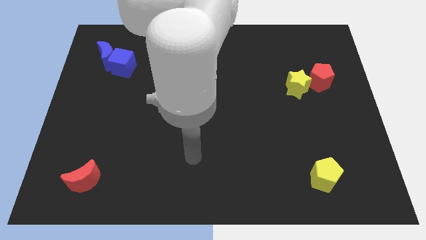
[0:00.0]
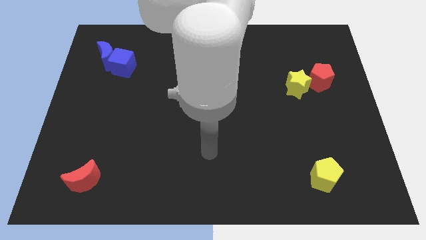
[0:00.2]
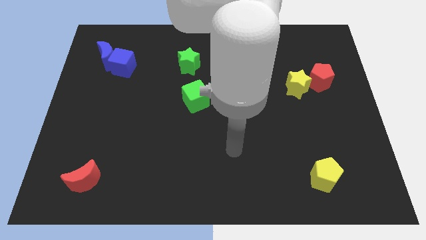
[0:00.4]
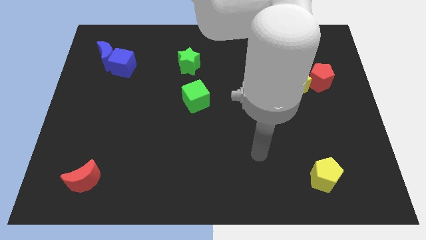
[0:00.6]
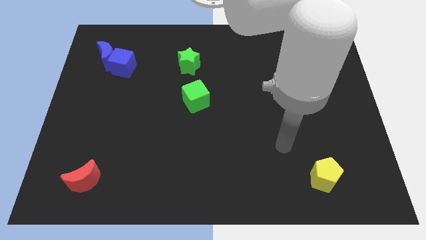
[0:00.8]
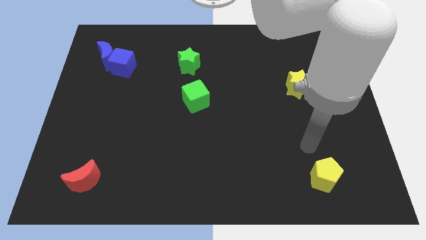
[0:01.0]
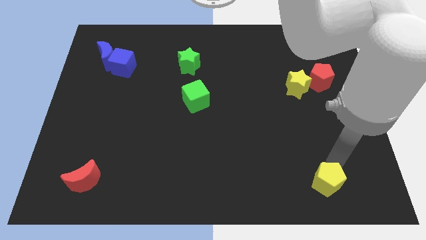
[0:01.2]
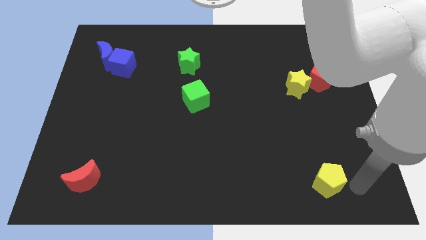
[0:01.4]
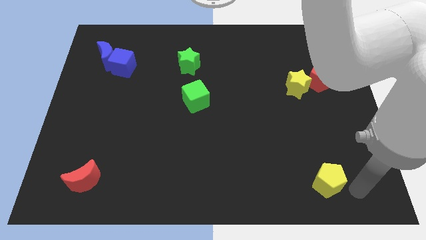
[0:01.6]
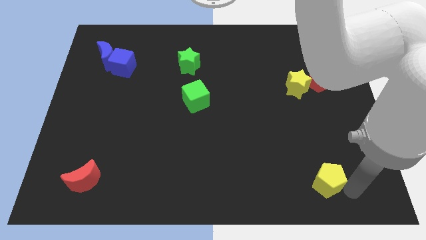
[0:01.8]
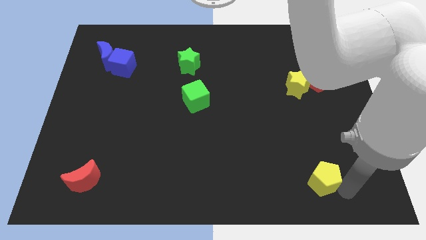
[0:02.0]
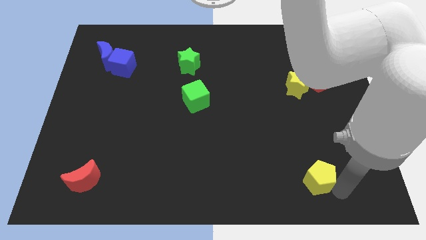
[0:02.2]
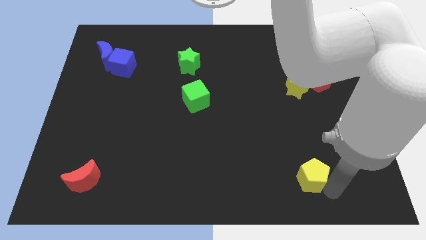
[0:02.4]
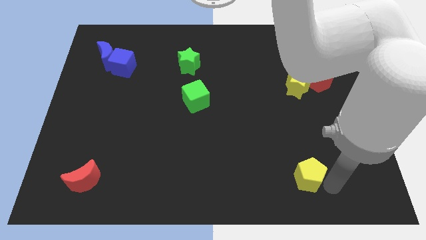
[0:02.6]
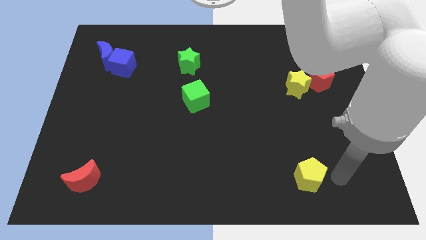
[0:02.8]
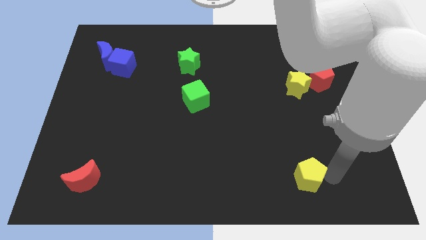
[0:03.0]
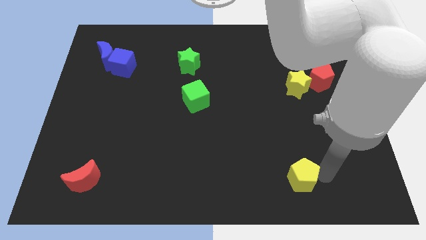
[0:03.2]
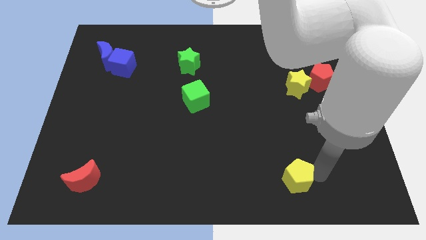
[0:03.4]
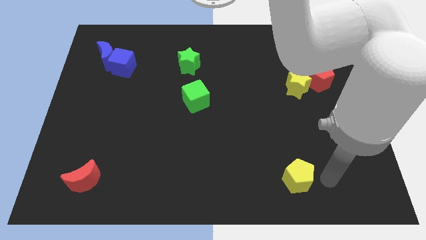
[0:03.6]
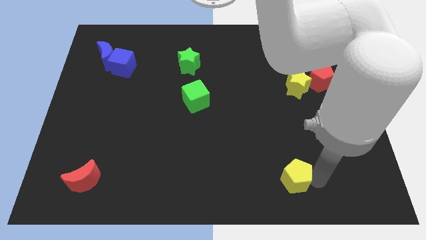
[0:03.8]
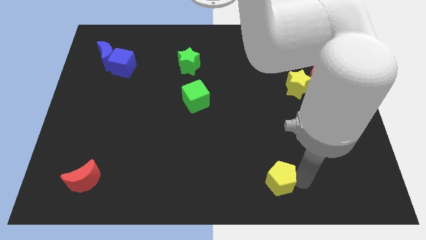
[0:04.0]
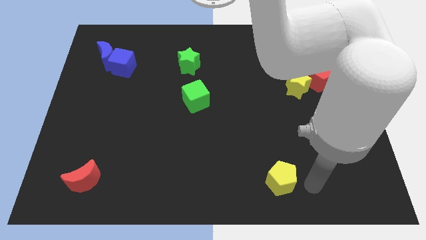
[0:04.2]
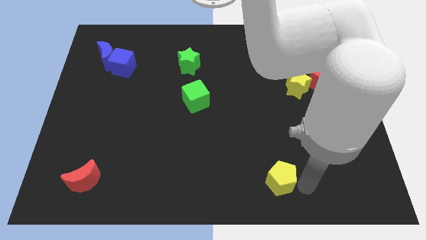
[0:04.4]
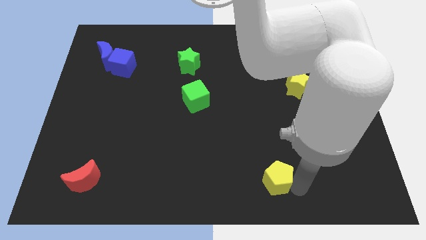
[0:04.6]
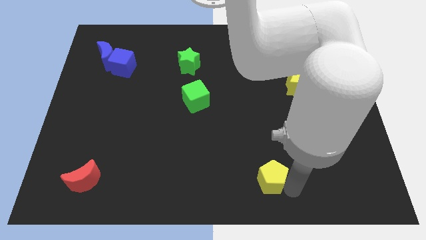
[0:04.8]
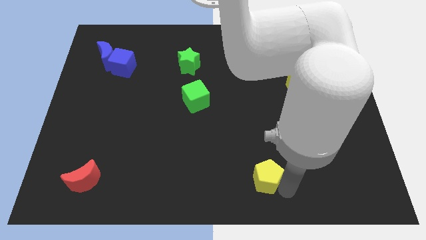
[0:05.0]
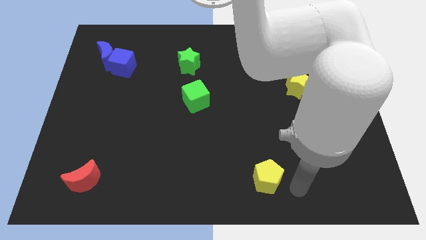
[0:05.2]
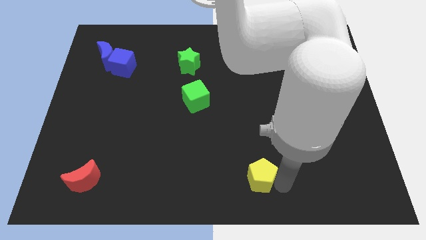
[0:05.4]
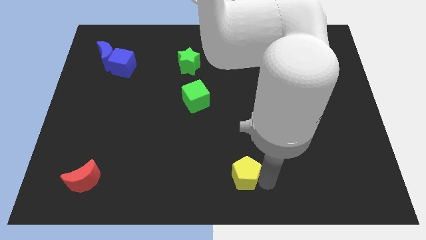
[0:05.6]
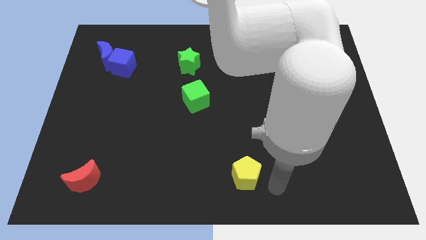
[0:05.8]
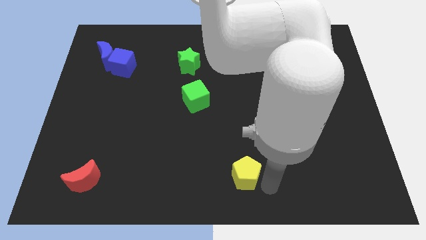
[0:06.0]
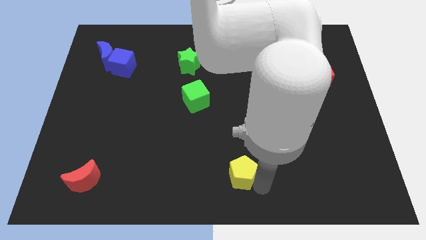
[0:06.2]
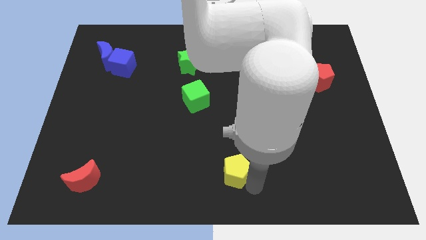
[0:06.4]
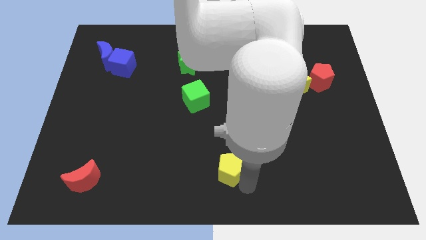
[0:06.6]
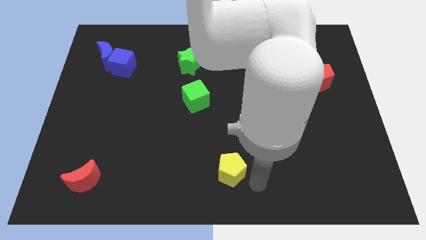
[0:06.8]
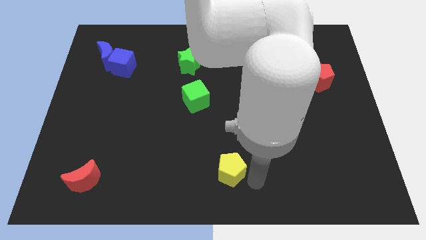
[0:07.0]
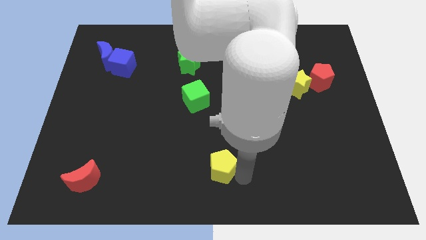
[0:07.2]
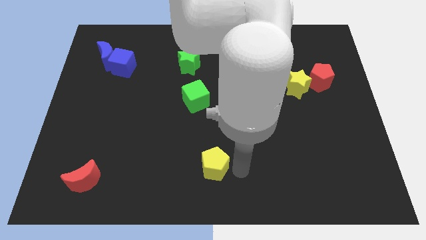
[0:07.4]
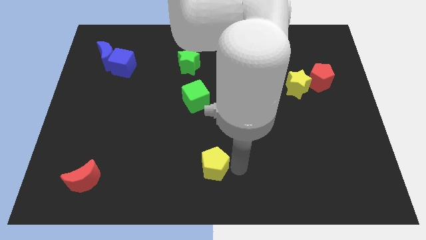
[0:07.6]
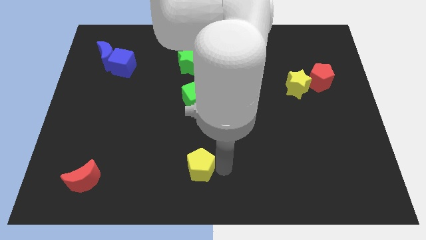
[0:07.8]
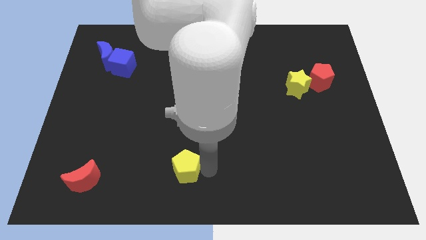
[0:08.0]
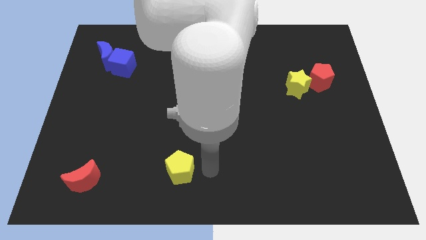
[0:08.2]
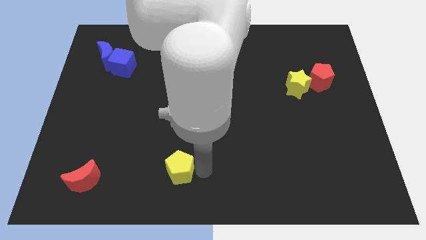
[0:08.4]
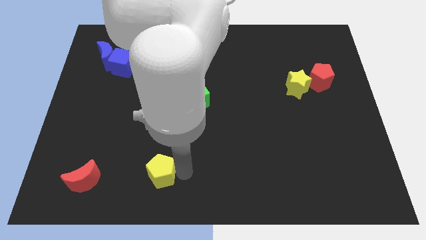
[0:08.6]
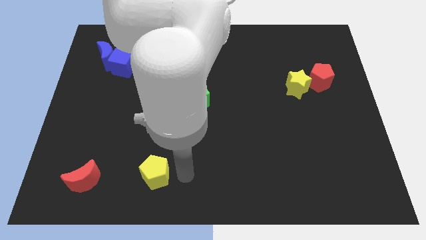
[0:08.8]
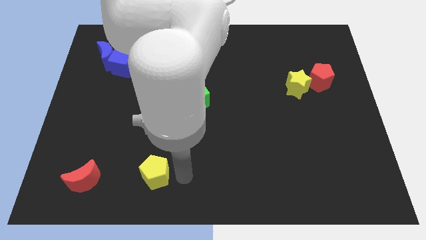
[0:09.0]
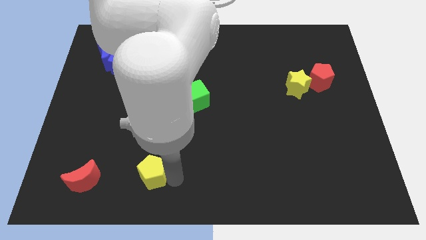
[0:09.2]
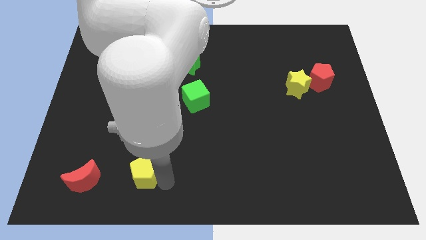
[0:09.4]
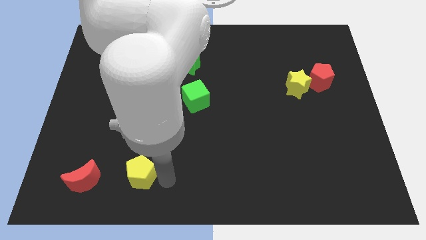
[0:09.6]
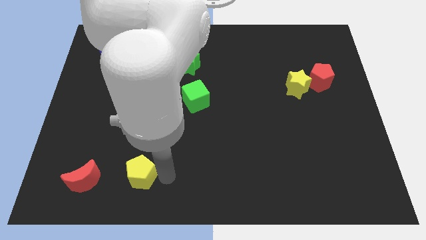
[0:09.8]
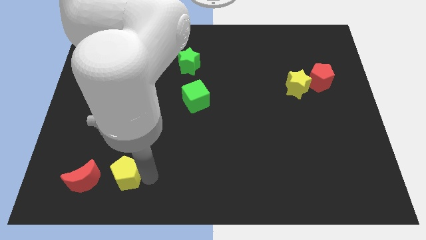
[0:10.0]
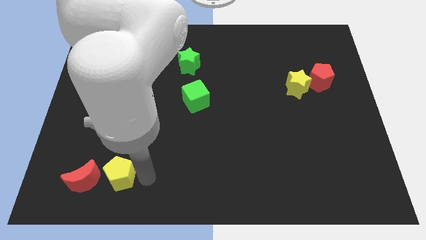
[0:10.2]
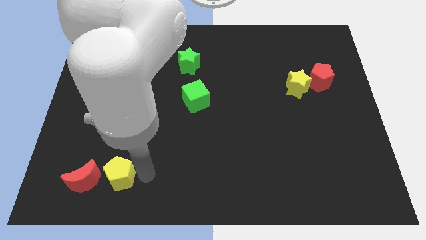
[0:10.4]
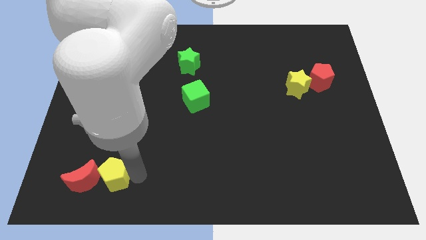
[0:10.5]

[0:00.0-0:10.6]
move the yellow pentagon towards the red moon

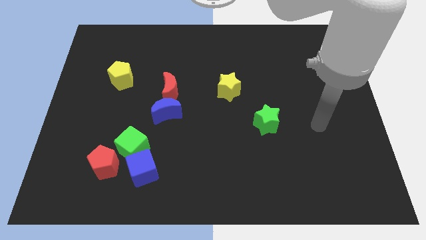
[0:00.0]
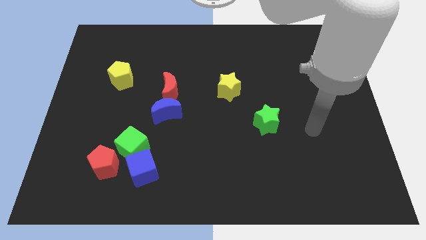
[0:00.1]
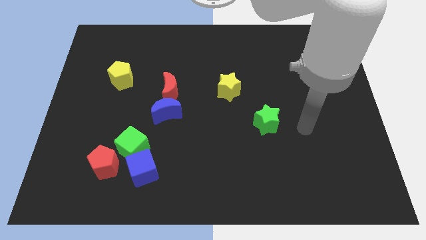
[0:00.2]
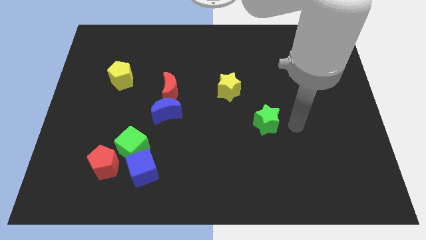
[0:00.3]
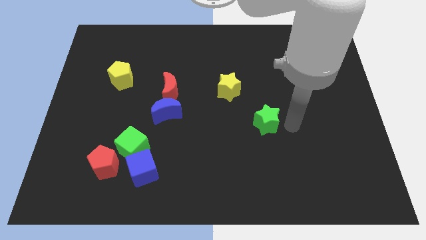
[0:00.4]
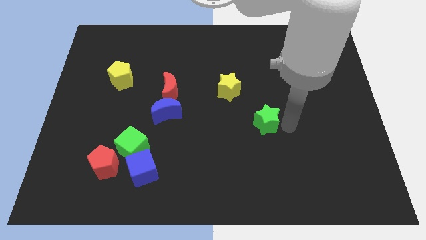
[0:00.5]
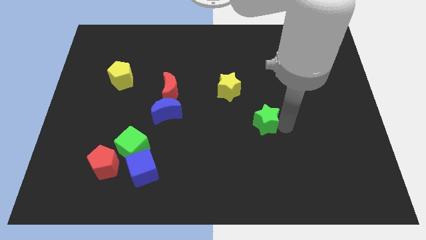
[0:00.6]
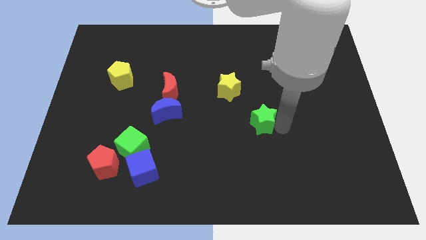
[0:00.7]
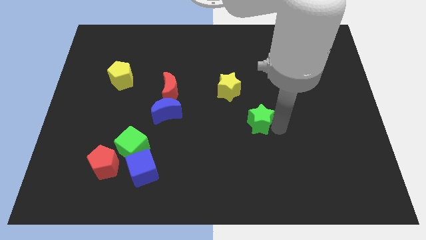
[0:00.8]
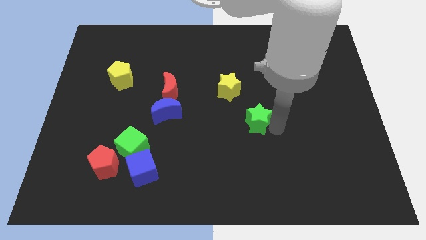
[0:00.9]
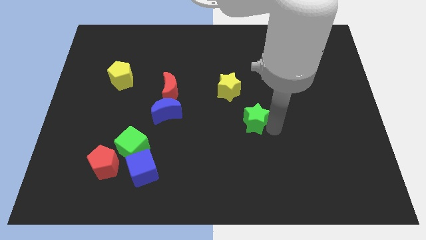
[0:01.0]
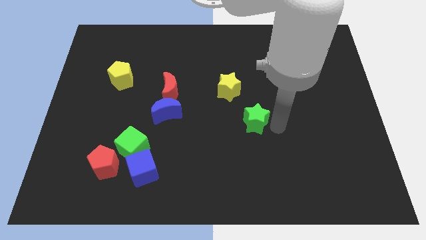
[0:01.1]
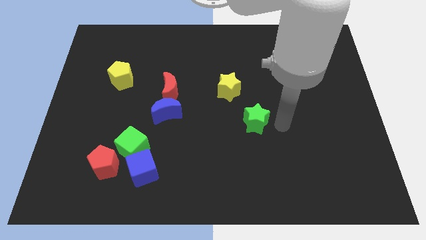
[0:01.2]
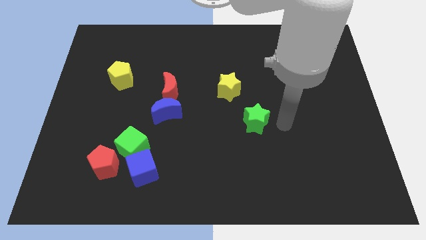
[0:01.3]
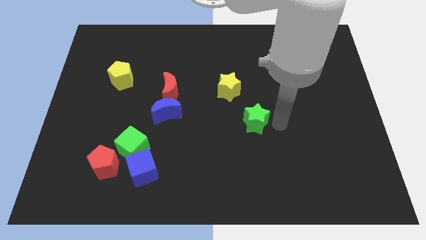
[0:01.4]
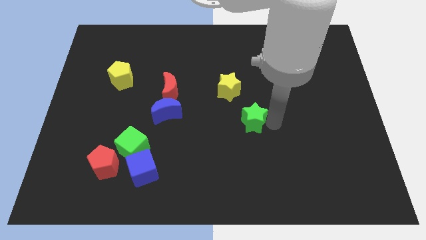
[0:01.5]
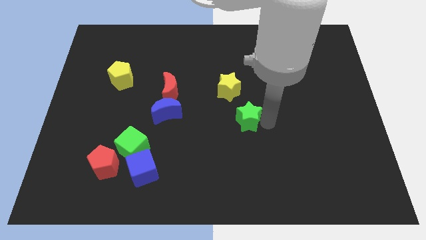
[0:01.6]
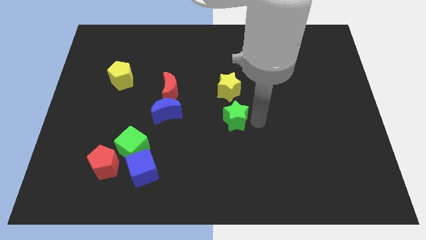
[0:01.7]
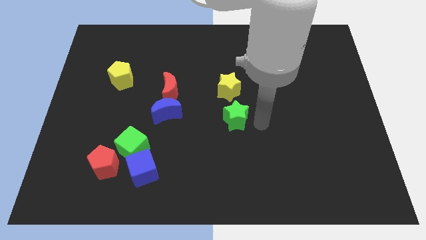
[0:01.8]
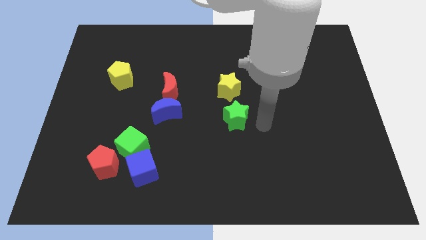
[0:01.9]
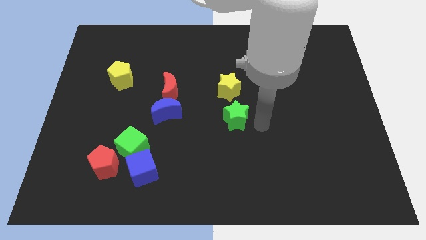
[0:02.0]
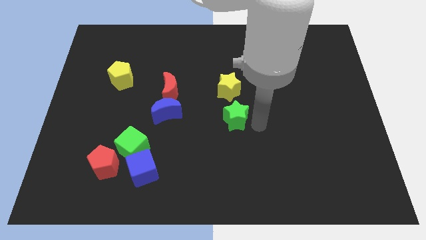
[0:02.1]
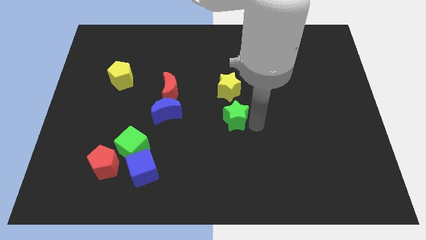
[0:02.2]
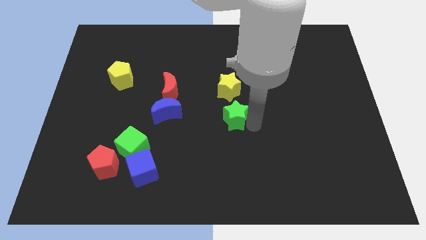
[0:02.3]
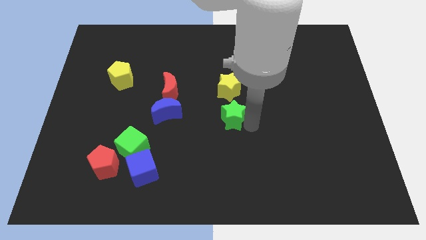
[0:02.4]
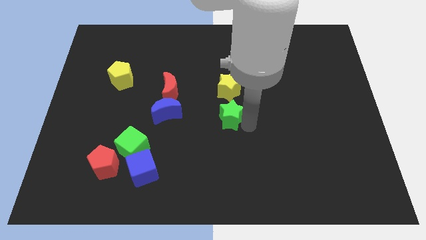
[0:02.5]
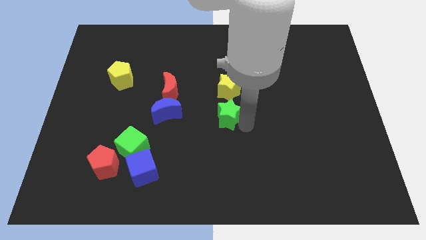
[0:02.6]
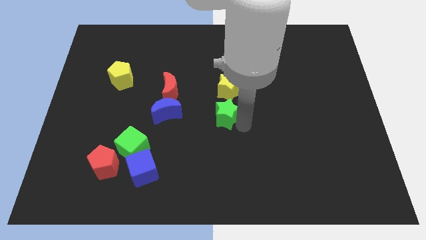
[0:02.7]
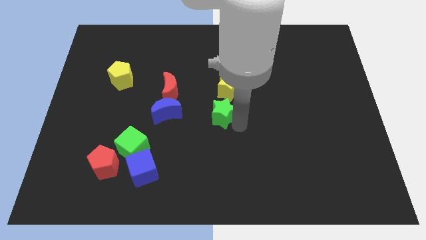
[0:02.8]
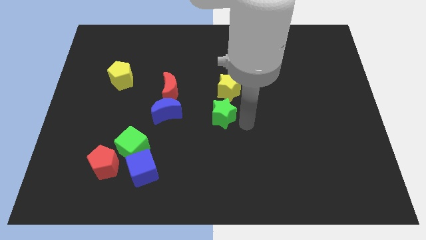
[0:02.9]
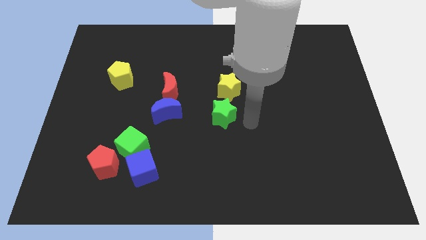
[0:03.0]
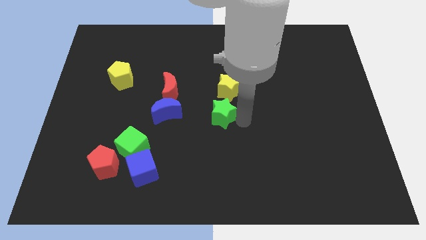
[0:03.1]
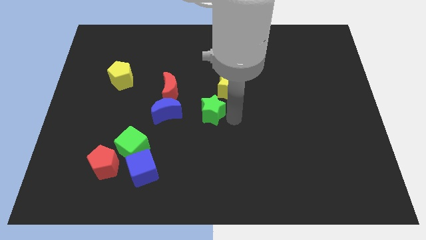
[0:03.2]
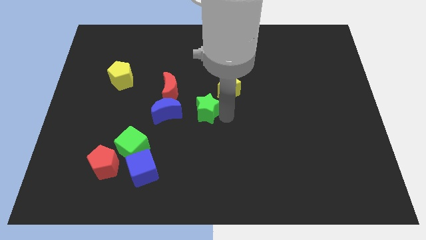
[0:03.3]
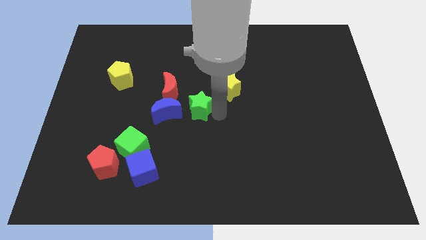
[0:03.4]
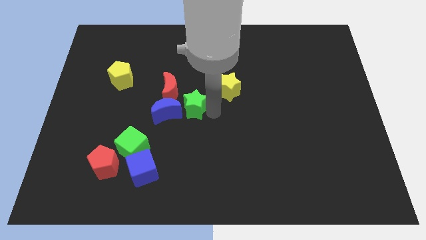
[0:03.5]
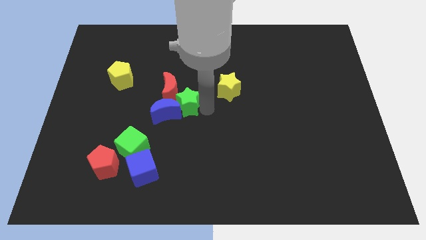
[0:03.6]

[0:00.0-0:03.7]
move the green star towards the blue moon
